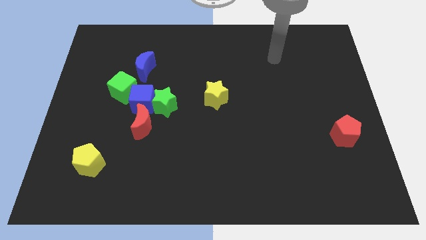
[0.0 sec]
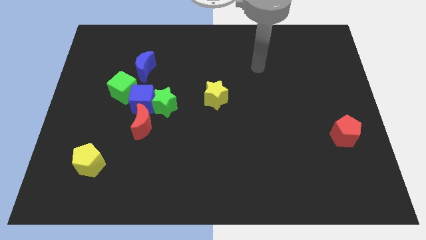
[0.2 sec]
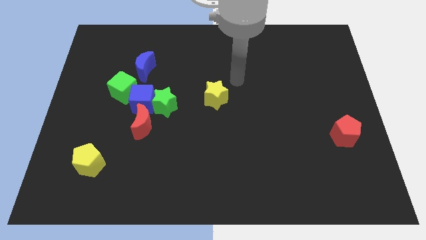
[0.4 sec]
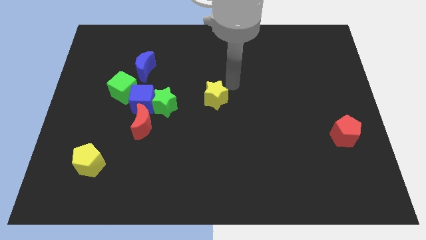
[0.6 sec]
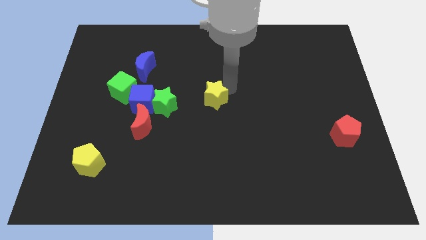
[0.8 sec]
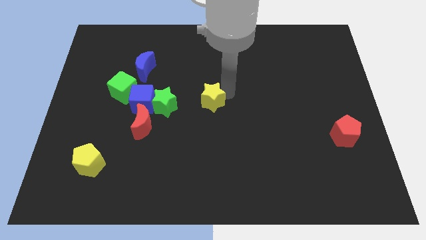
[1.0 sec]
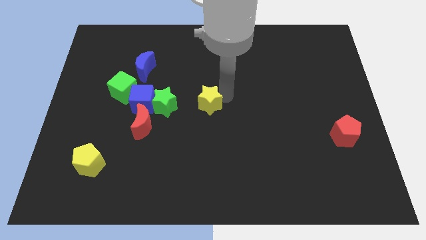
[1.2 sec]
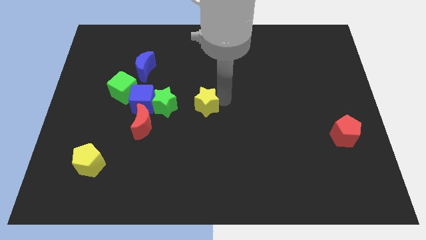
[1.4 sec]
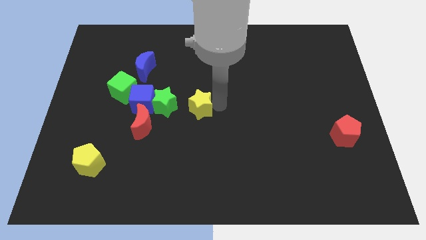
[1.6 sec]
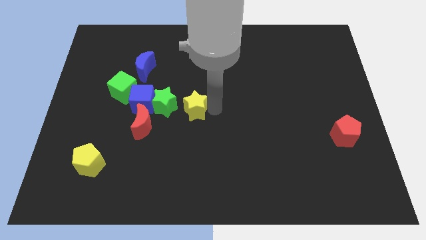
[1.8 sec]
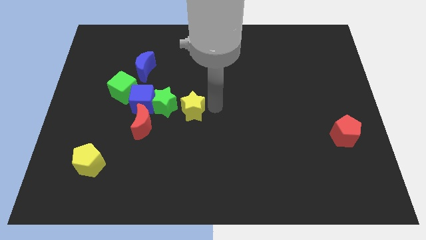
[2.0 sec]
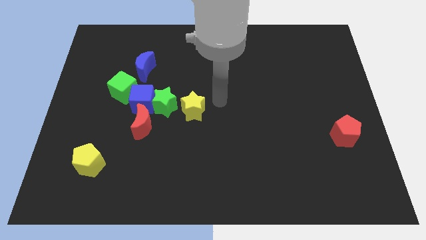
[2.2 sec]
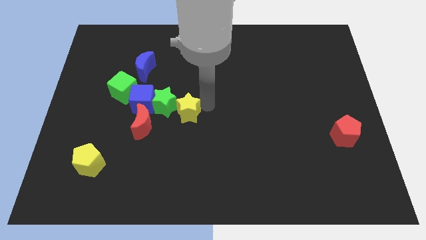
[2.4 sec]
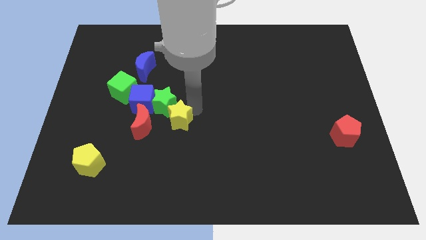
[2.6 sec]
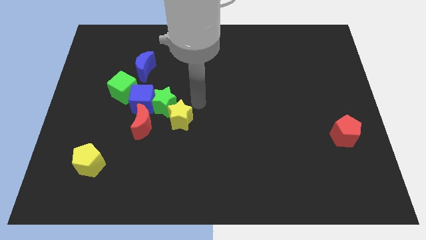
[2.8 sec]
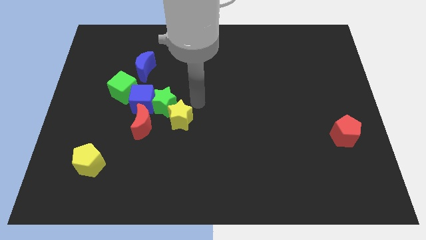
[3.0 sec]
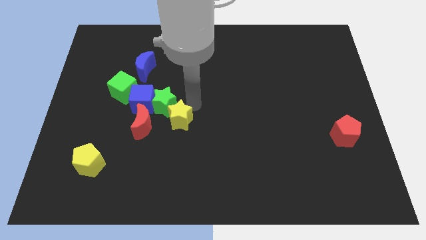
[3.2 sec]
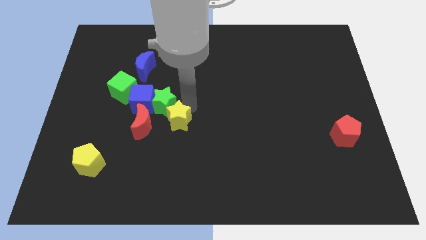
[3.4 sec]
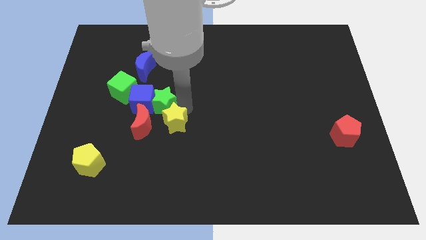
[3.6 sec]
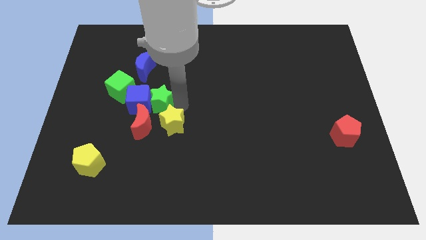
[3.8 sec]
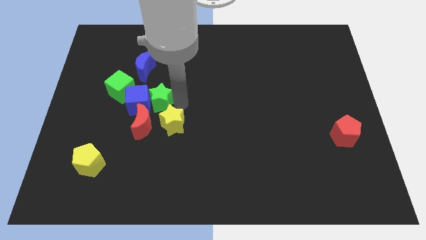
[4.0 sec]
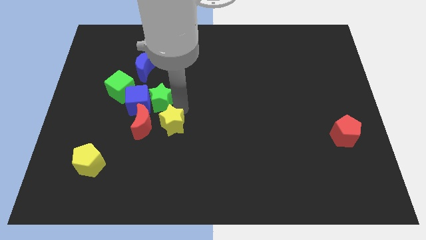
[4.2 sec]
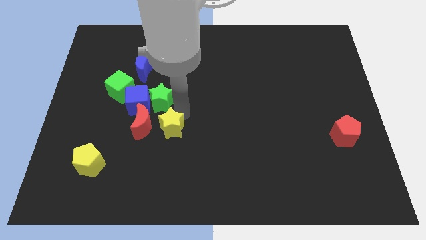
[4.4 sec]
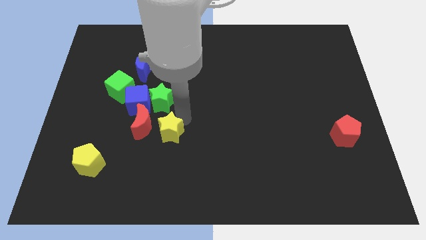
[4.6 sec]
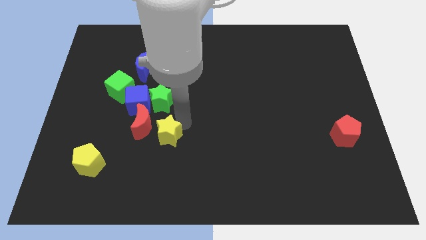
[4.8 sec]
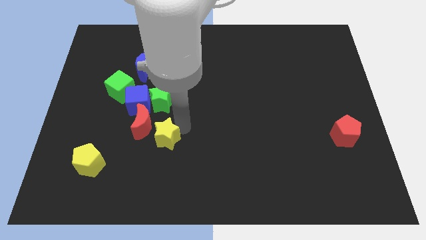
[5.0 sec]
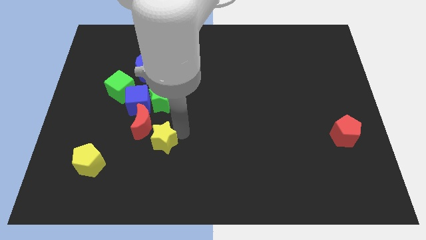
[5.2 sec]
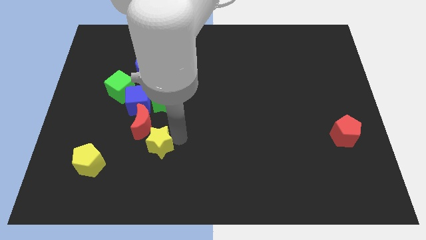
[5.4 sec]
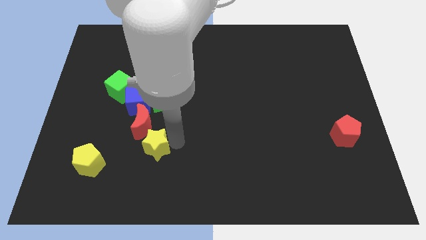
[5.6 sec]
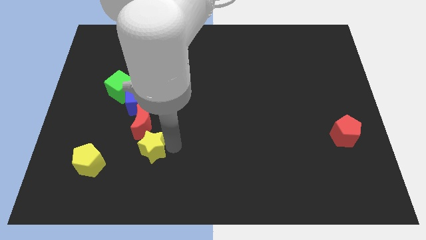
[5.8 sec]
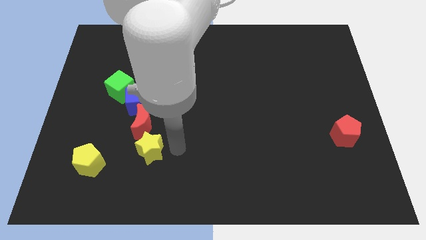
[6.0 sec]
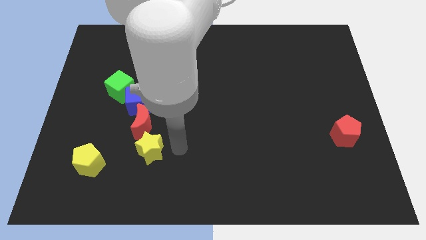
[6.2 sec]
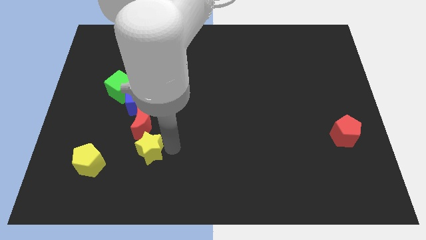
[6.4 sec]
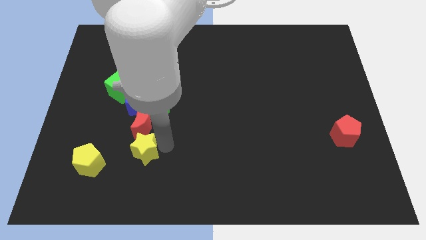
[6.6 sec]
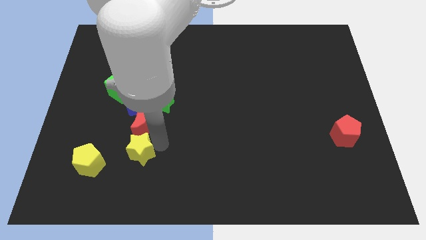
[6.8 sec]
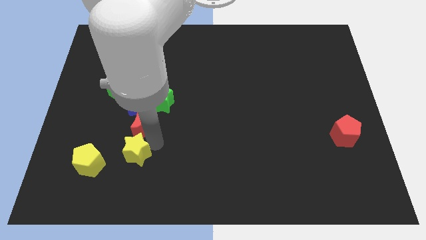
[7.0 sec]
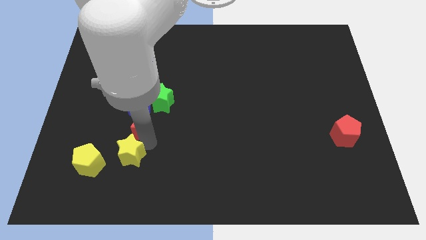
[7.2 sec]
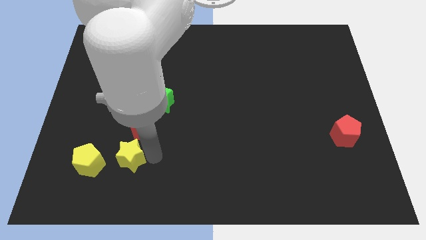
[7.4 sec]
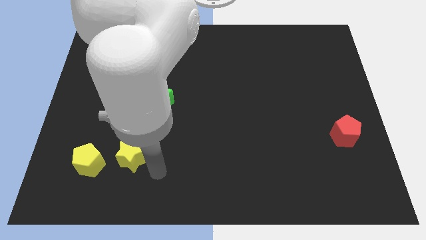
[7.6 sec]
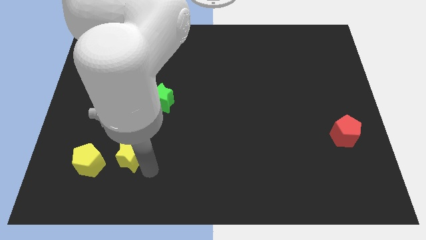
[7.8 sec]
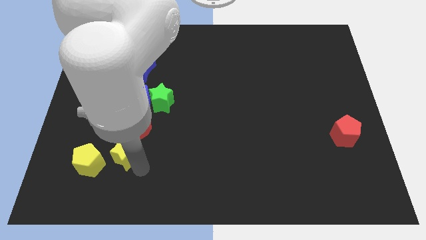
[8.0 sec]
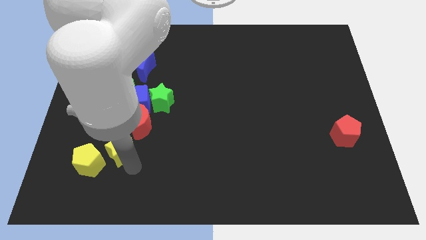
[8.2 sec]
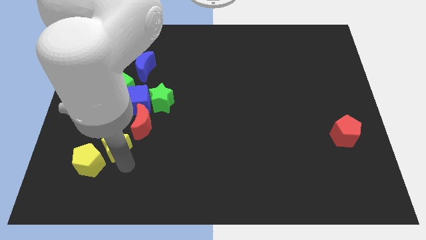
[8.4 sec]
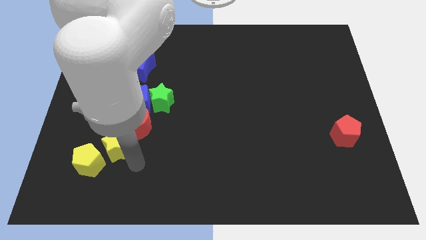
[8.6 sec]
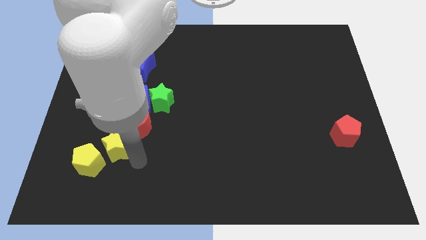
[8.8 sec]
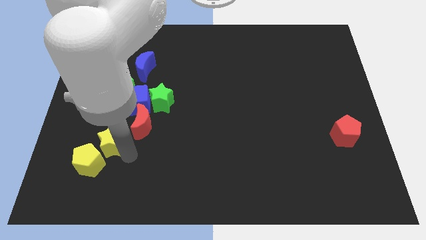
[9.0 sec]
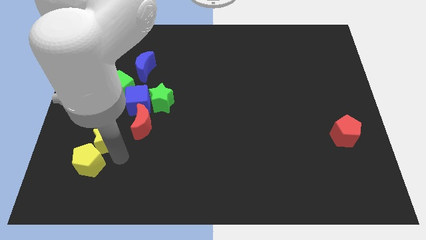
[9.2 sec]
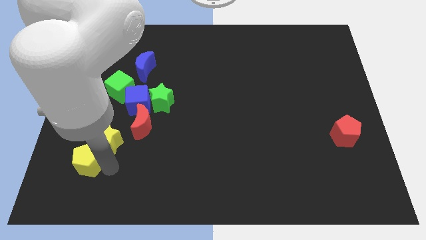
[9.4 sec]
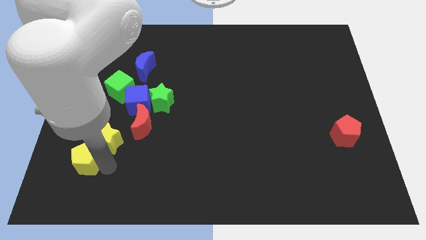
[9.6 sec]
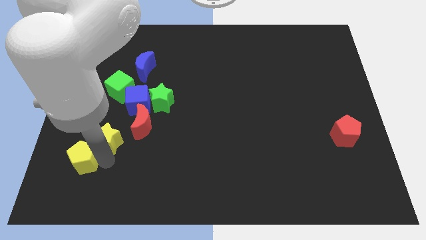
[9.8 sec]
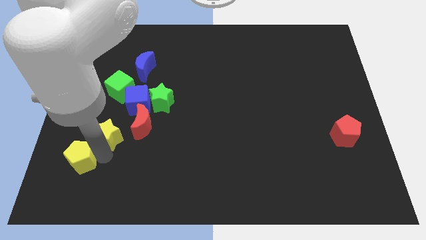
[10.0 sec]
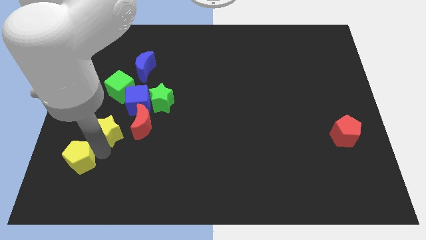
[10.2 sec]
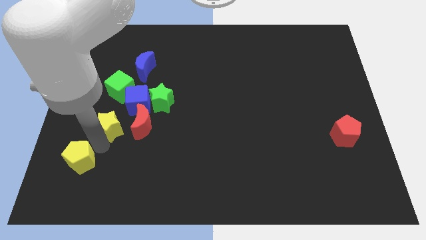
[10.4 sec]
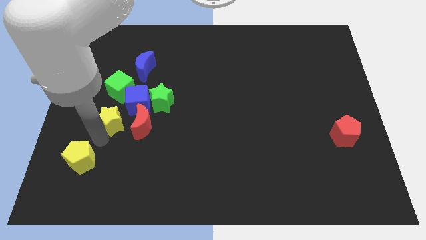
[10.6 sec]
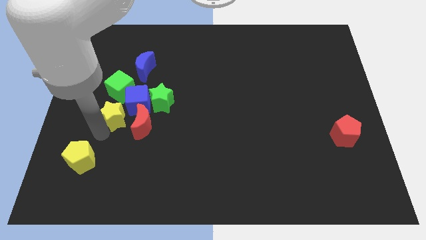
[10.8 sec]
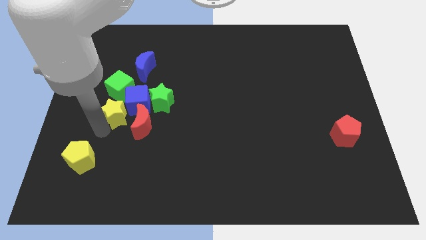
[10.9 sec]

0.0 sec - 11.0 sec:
slide the yellow star just left of the green star
